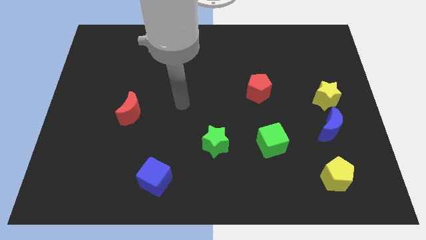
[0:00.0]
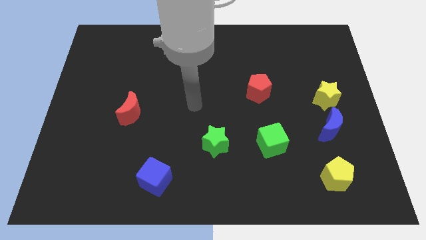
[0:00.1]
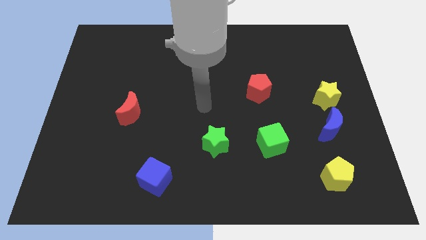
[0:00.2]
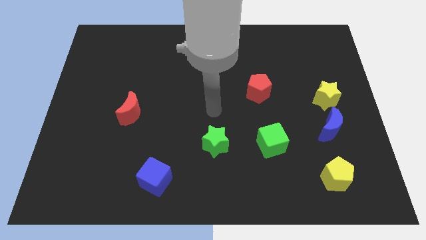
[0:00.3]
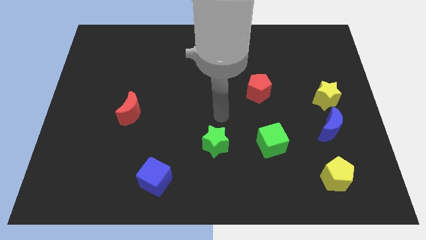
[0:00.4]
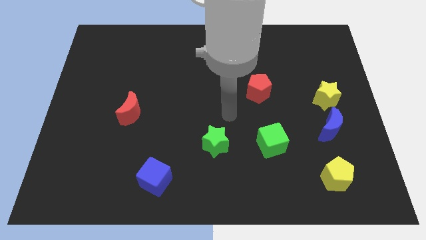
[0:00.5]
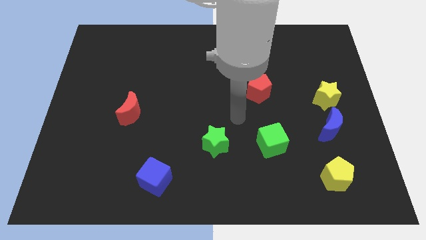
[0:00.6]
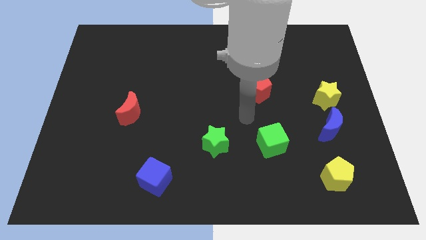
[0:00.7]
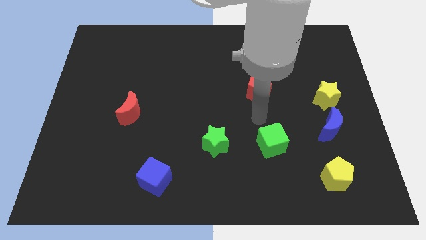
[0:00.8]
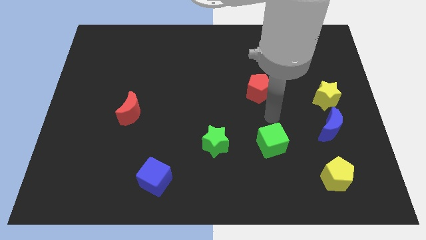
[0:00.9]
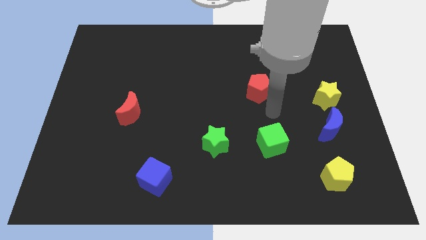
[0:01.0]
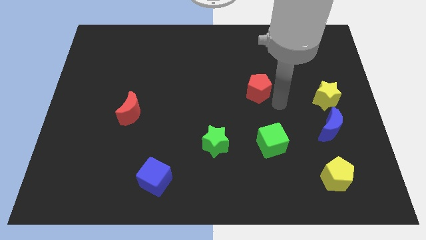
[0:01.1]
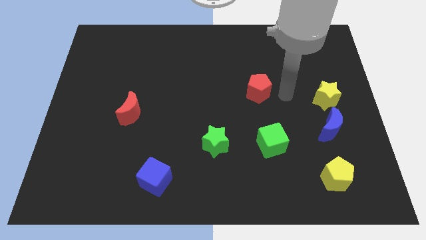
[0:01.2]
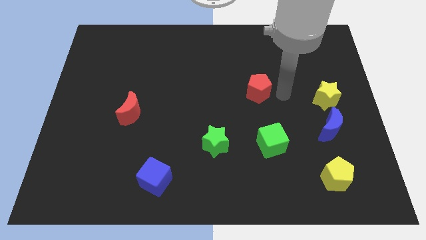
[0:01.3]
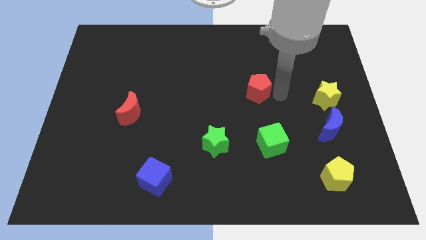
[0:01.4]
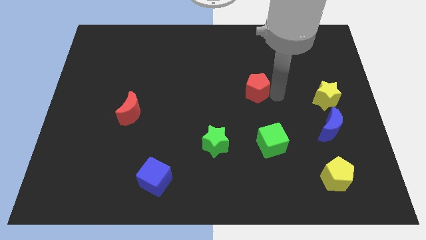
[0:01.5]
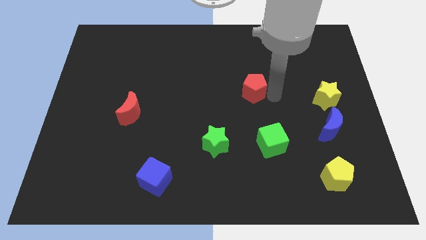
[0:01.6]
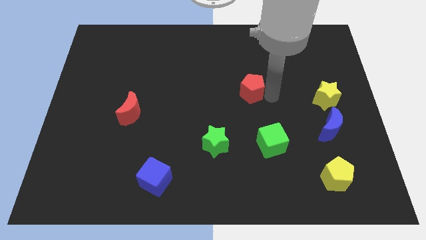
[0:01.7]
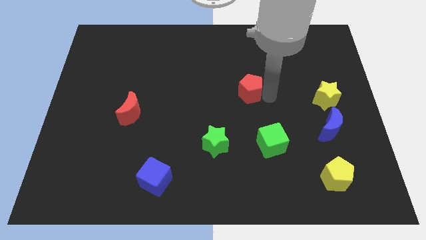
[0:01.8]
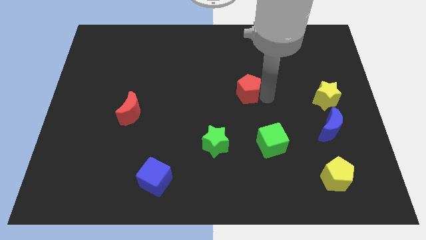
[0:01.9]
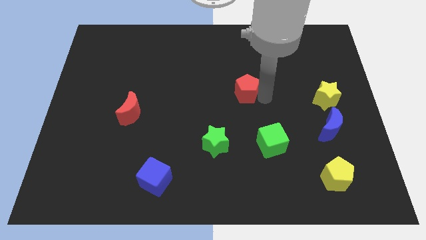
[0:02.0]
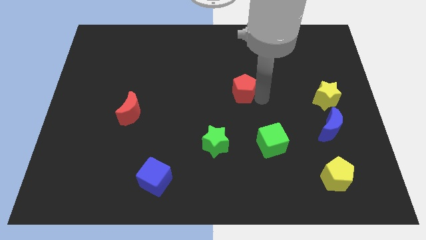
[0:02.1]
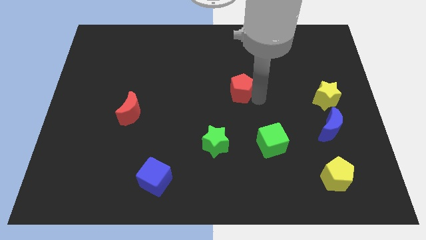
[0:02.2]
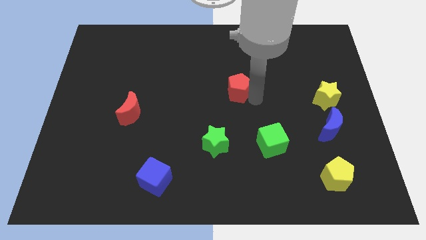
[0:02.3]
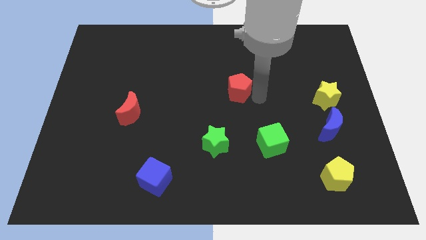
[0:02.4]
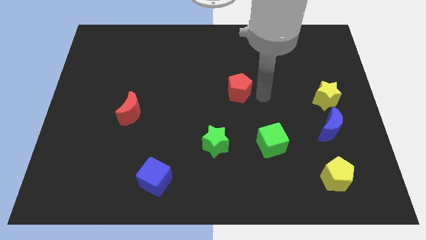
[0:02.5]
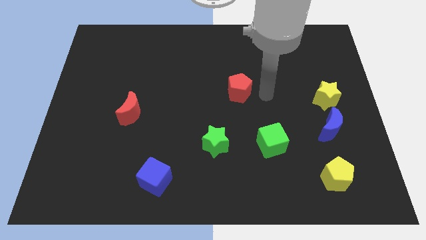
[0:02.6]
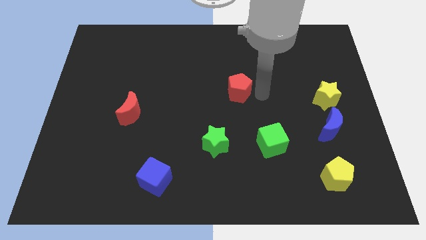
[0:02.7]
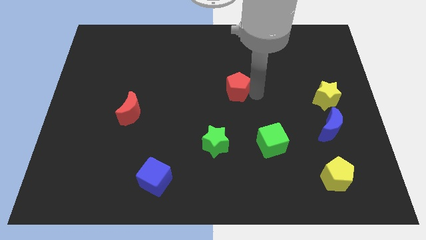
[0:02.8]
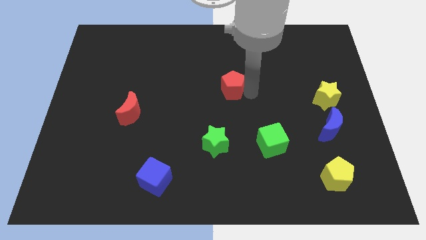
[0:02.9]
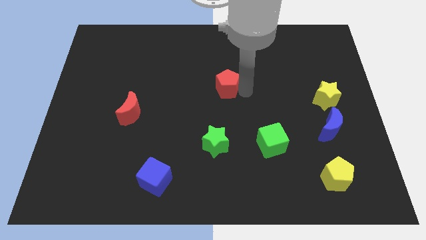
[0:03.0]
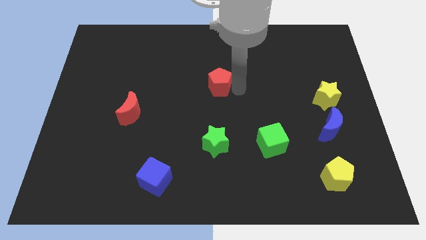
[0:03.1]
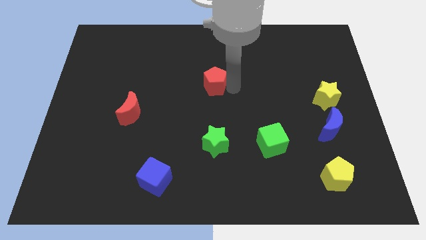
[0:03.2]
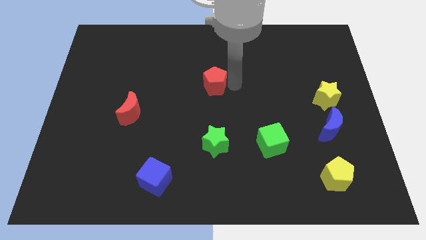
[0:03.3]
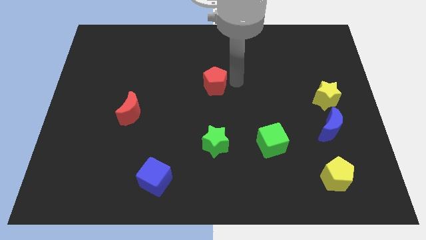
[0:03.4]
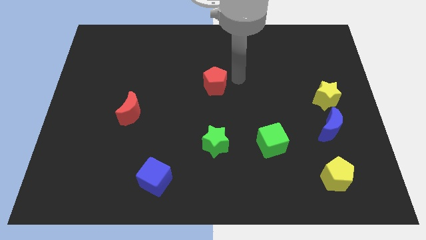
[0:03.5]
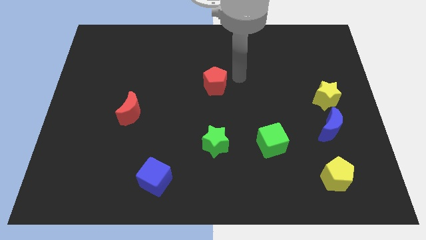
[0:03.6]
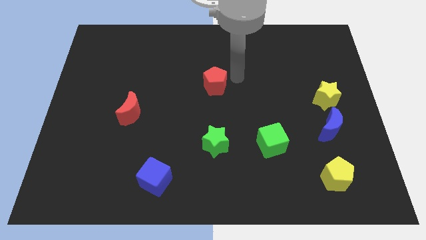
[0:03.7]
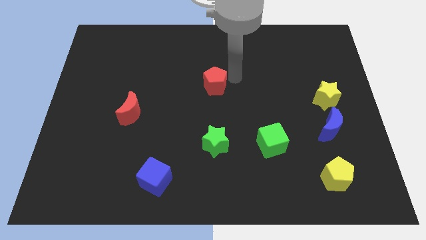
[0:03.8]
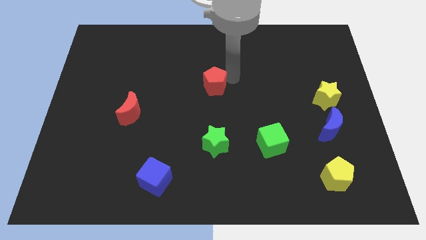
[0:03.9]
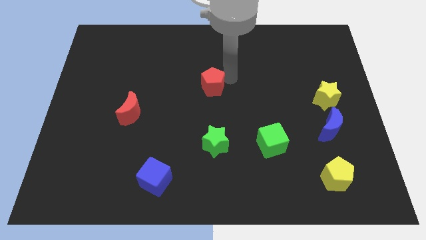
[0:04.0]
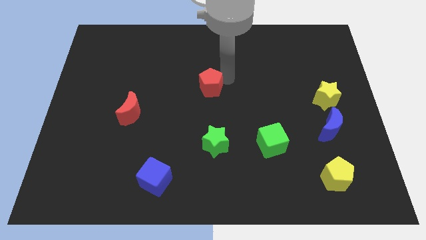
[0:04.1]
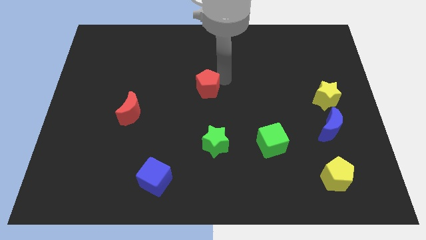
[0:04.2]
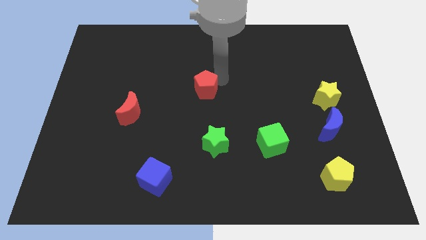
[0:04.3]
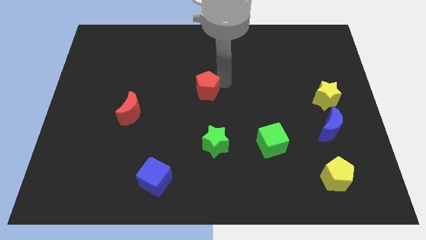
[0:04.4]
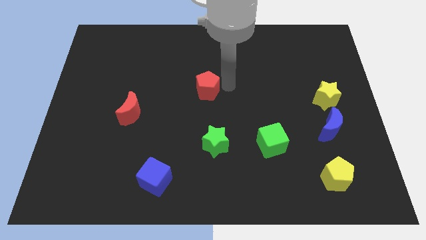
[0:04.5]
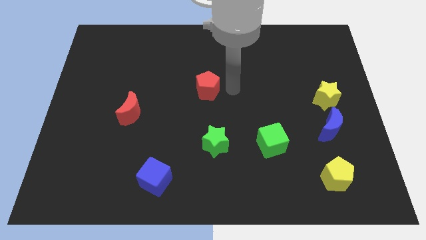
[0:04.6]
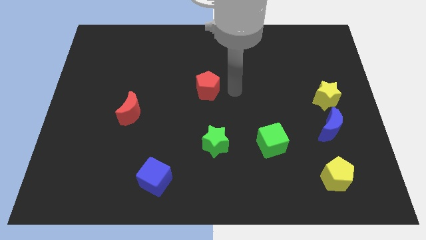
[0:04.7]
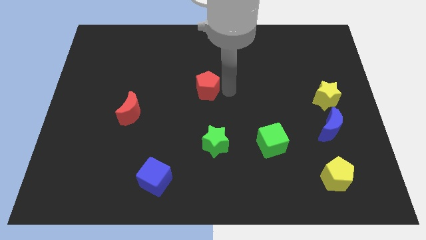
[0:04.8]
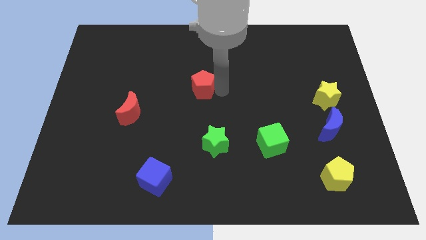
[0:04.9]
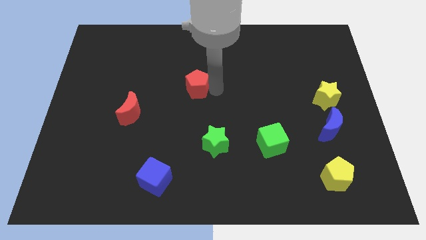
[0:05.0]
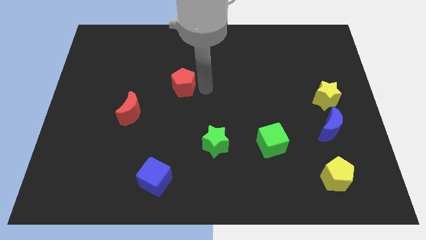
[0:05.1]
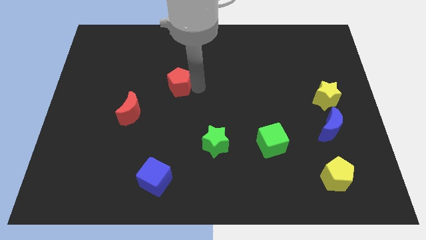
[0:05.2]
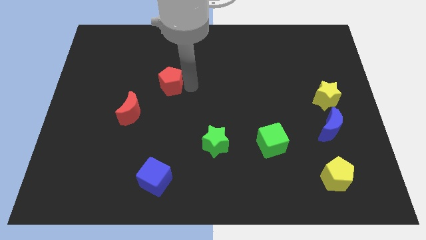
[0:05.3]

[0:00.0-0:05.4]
slide the red pentagon to the left

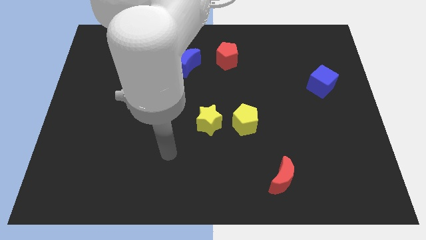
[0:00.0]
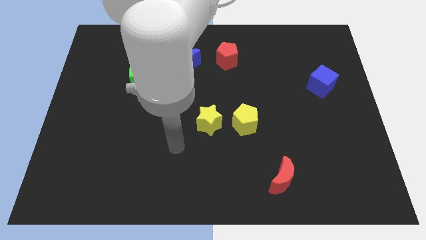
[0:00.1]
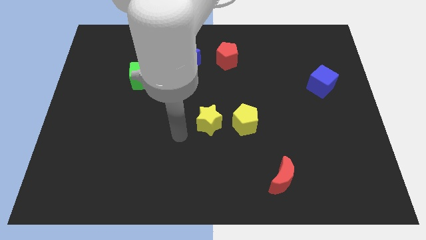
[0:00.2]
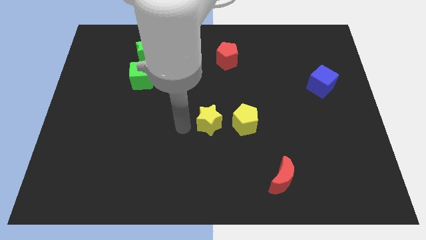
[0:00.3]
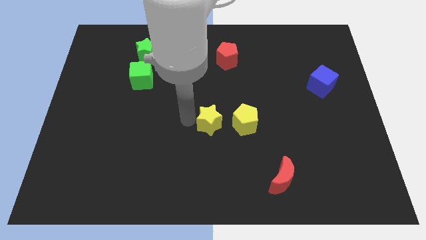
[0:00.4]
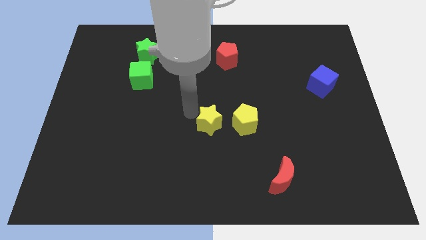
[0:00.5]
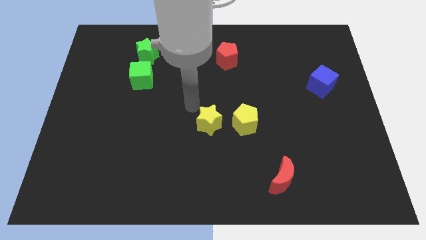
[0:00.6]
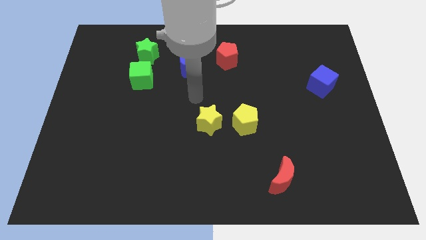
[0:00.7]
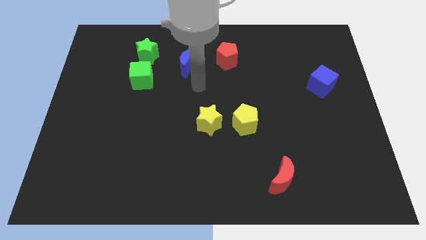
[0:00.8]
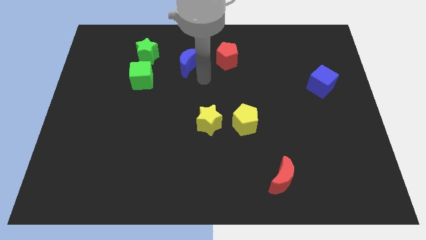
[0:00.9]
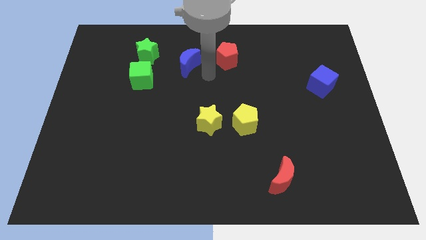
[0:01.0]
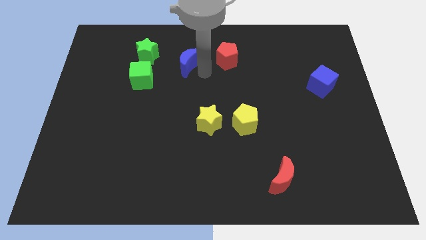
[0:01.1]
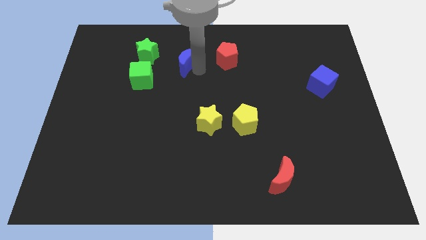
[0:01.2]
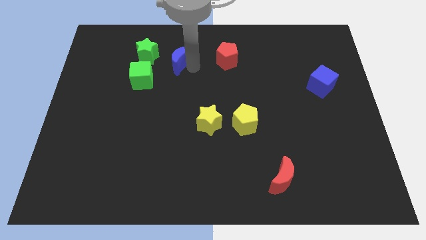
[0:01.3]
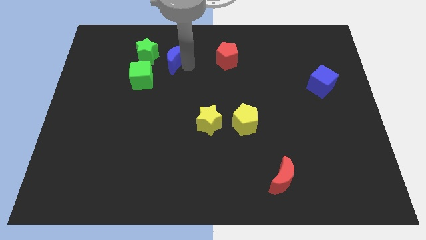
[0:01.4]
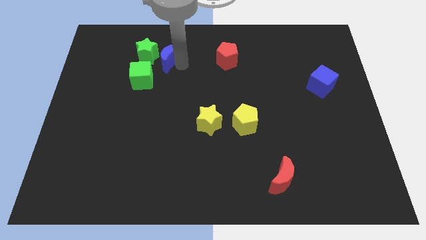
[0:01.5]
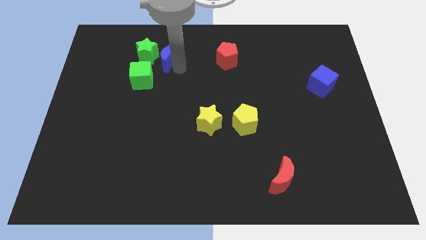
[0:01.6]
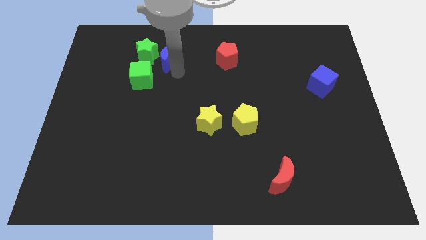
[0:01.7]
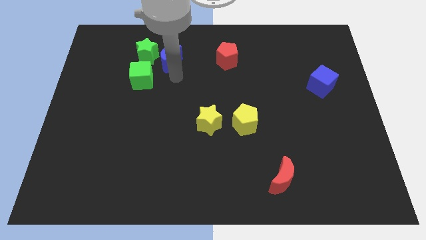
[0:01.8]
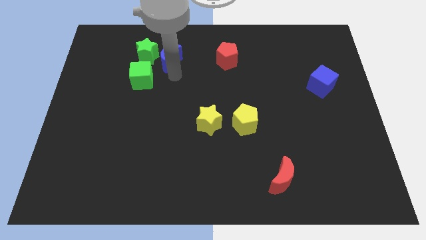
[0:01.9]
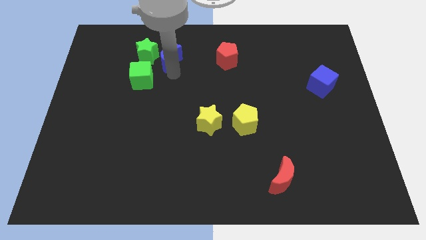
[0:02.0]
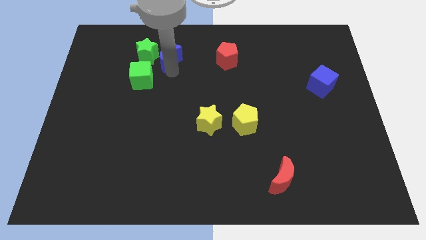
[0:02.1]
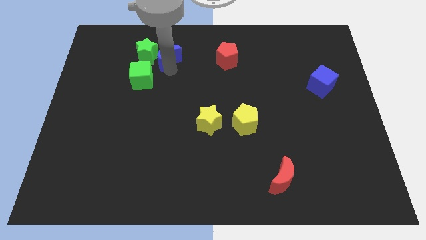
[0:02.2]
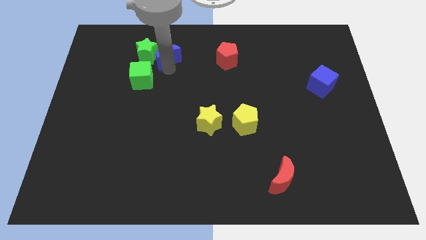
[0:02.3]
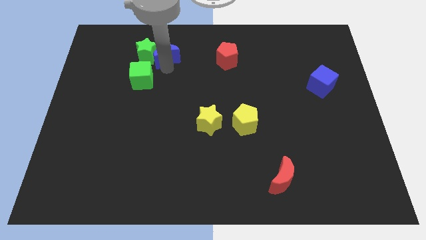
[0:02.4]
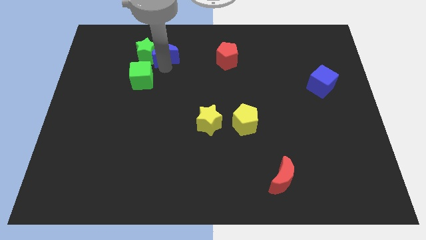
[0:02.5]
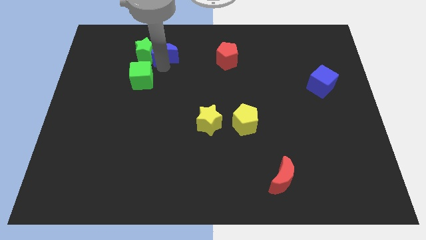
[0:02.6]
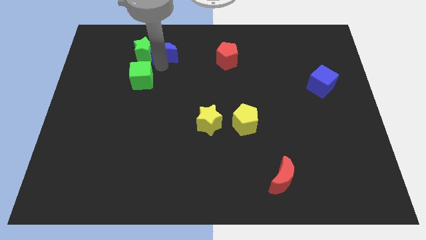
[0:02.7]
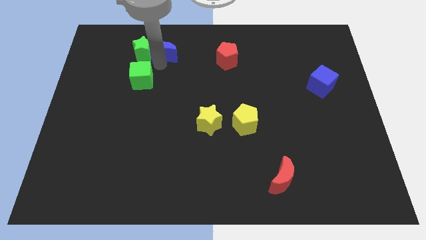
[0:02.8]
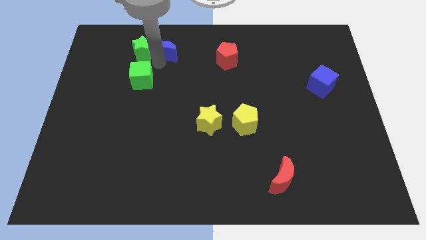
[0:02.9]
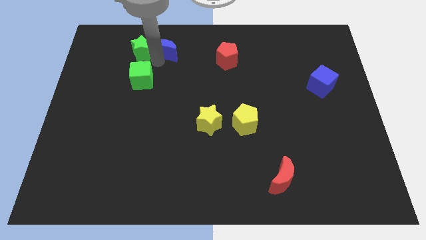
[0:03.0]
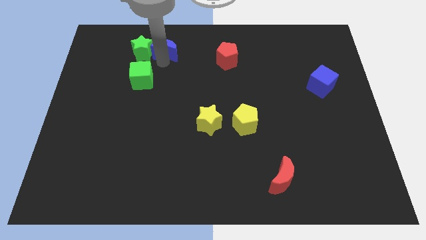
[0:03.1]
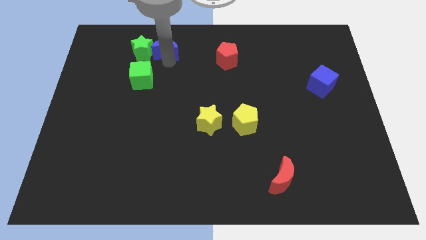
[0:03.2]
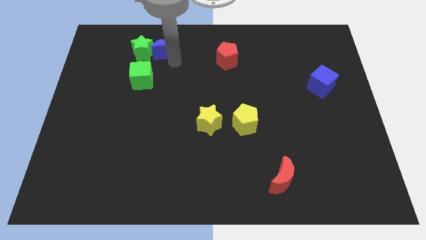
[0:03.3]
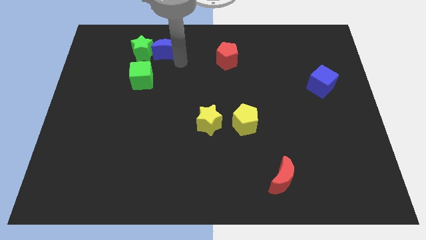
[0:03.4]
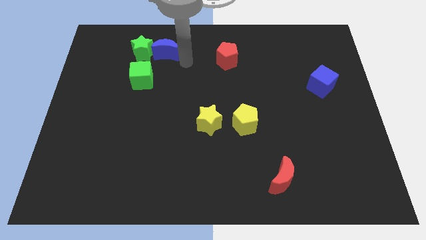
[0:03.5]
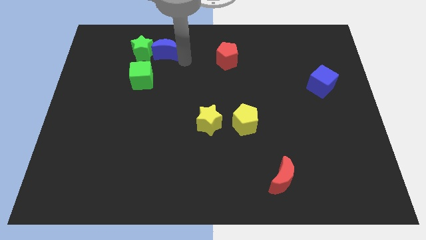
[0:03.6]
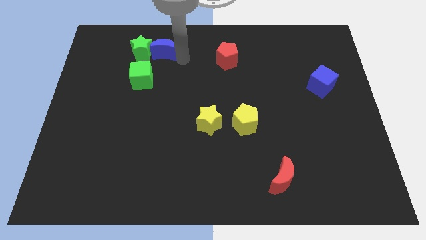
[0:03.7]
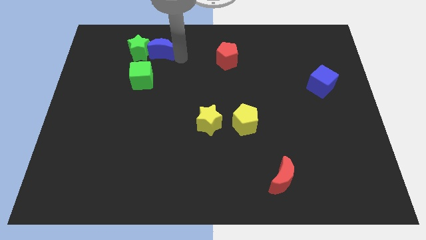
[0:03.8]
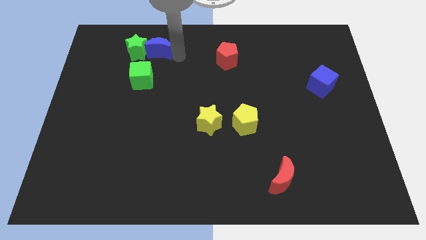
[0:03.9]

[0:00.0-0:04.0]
move the blue moon a little left
